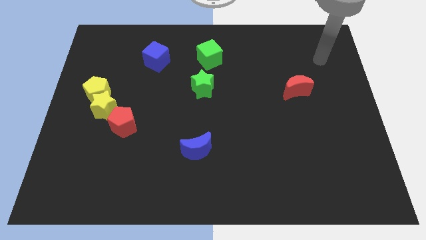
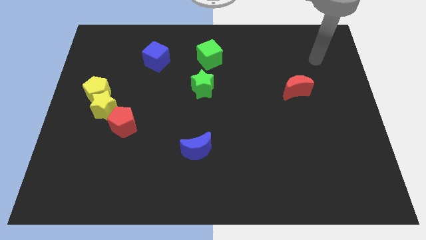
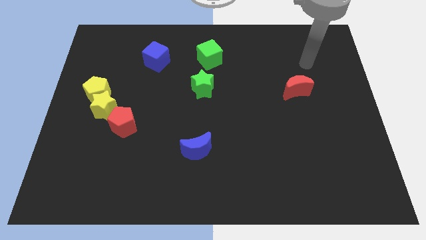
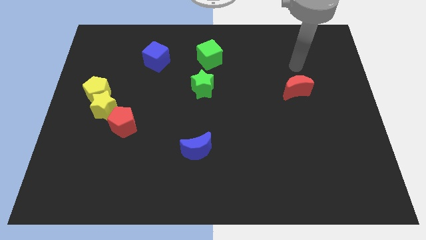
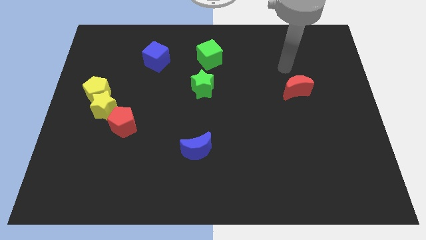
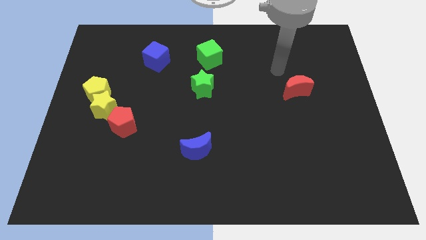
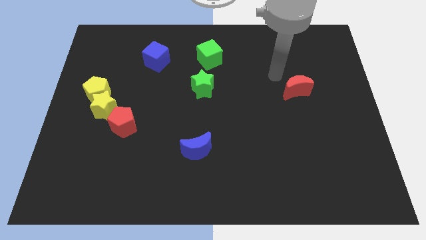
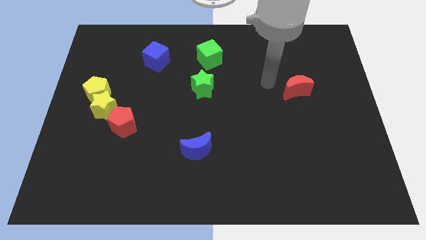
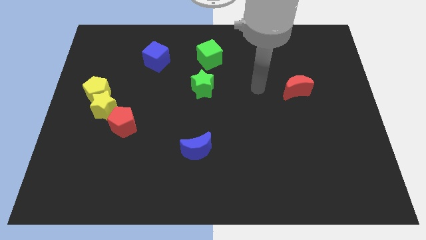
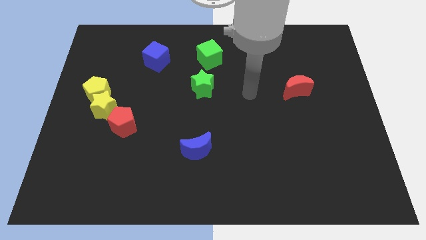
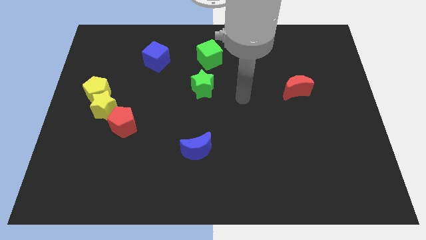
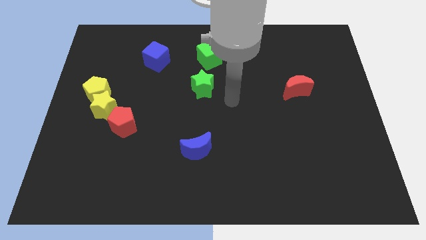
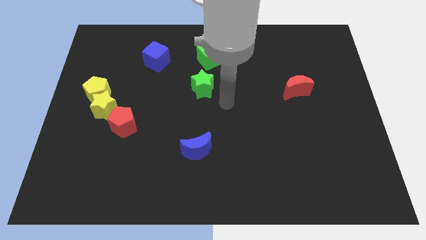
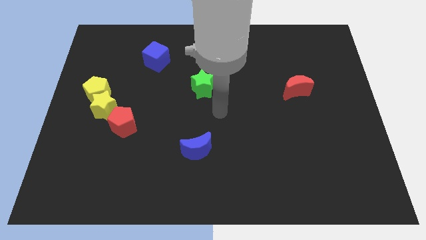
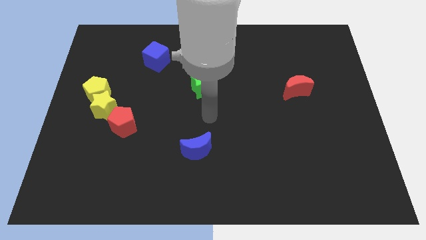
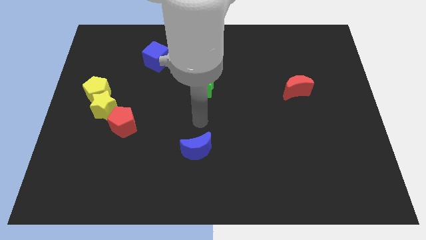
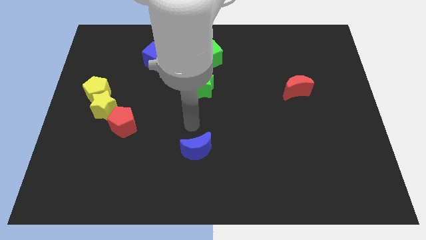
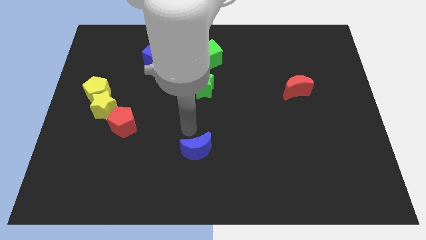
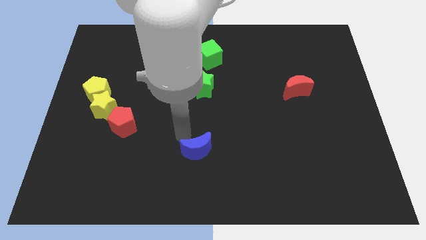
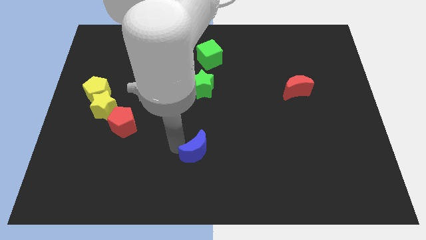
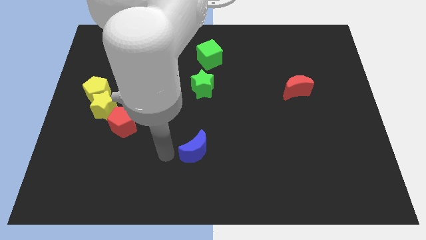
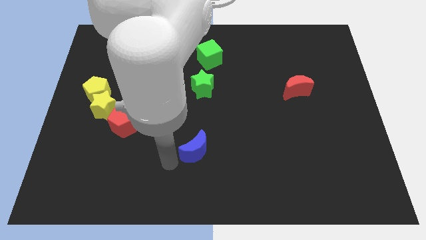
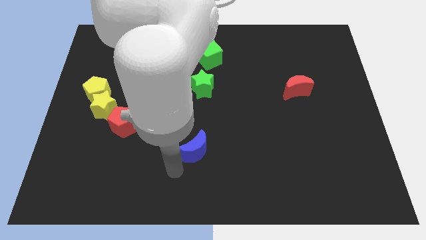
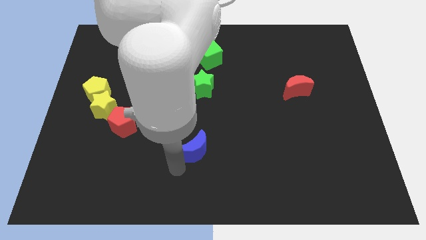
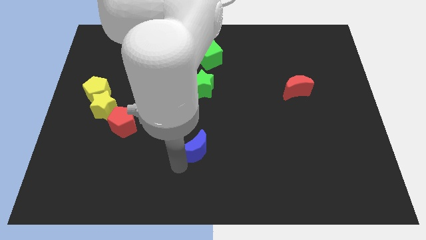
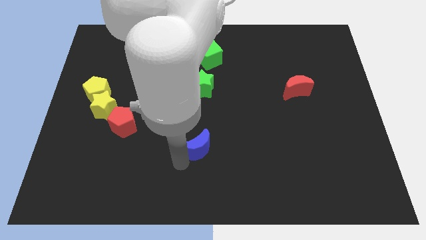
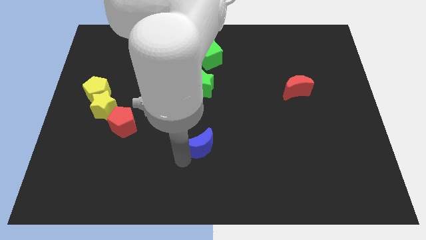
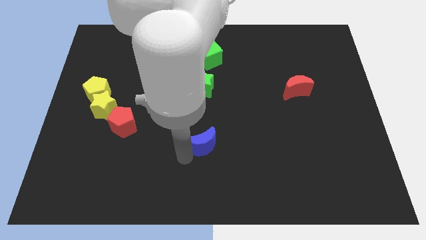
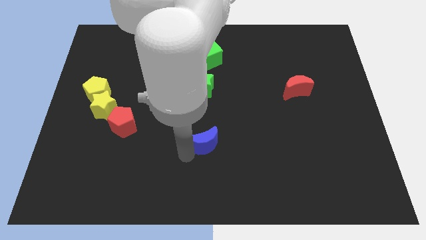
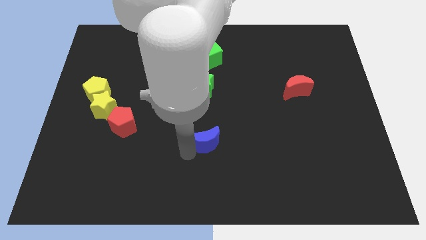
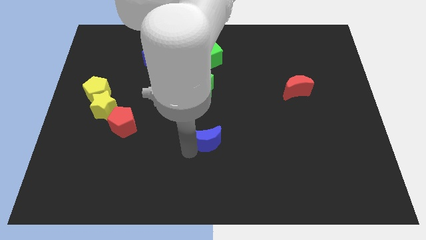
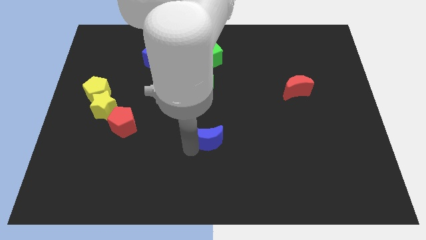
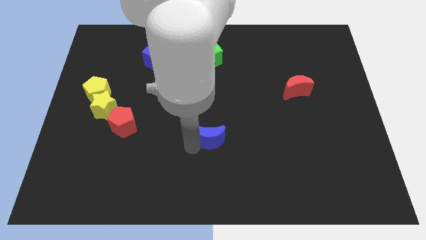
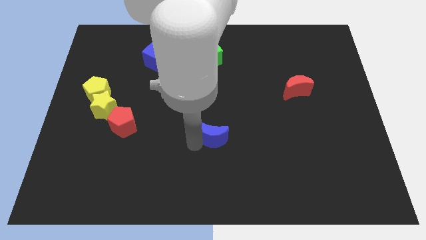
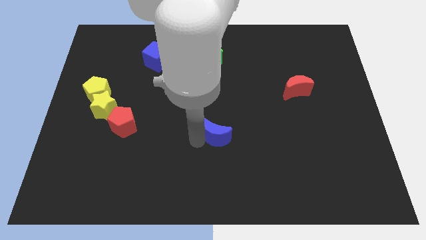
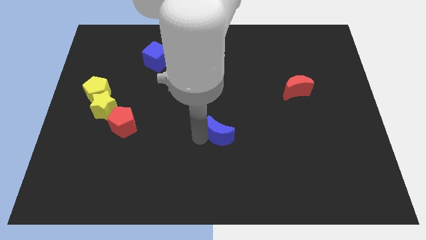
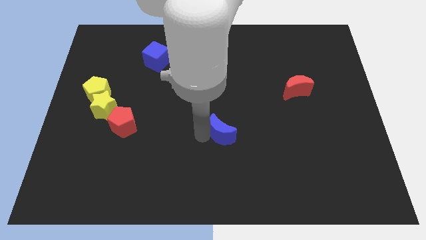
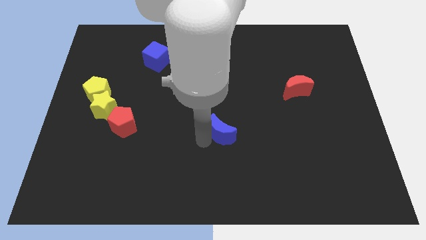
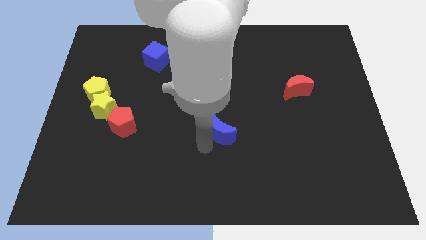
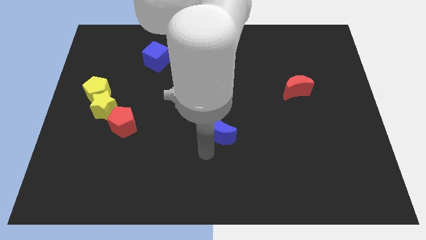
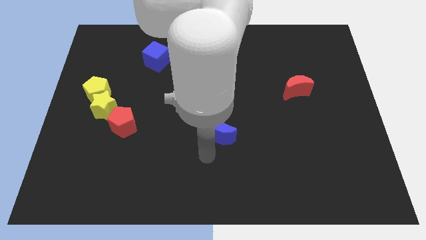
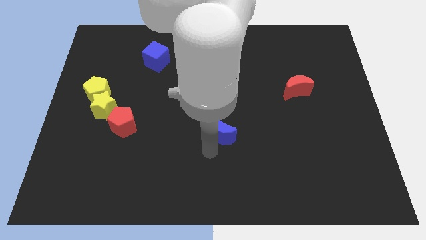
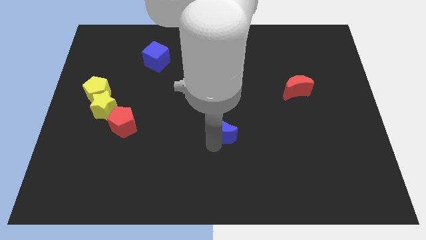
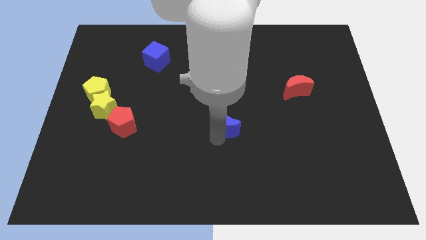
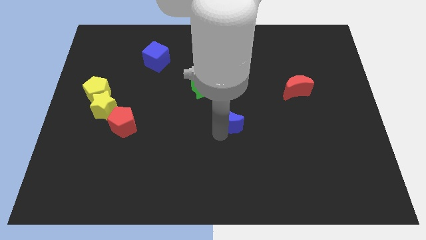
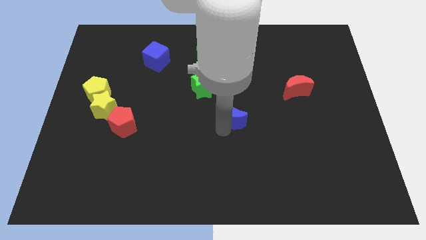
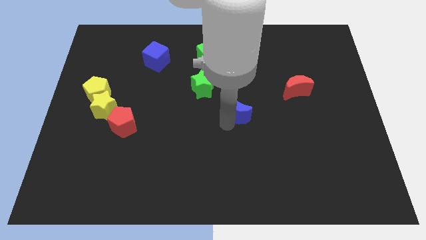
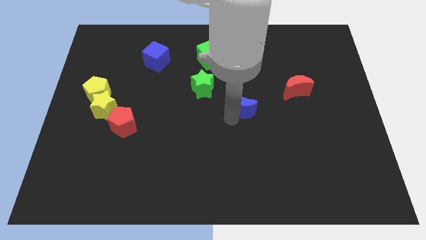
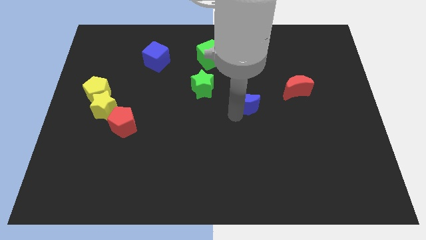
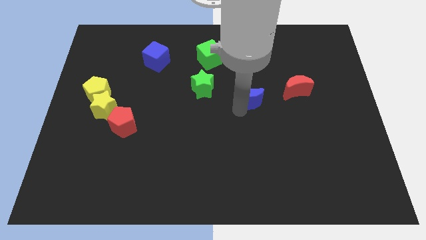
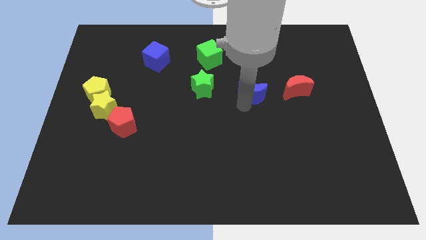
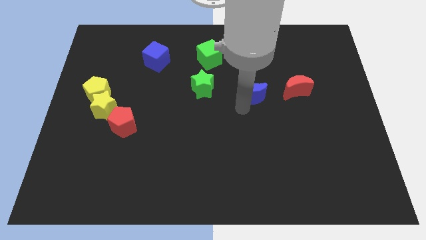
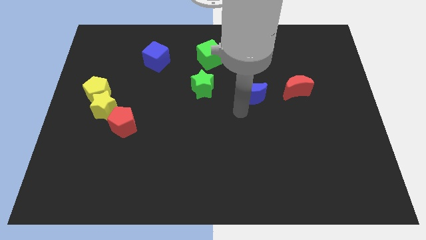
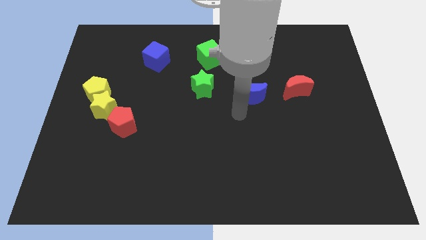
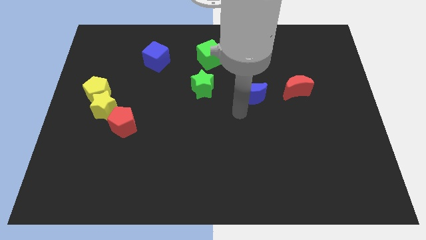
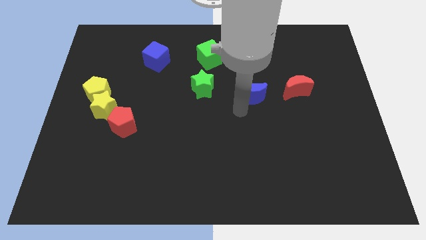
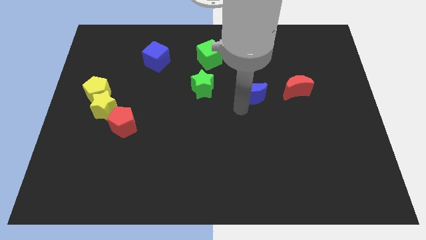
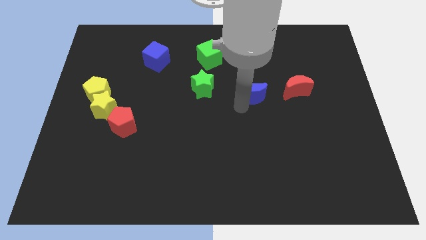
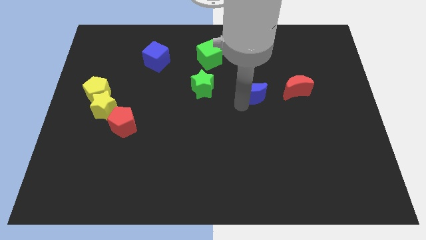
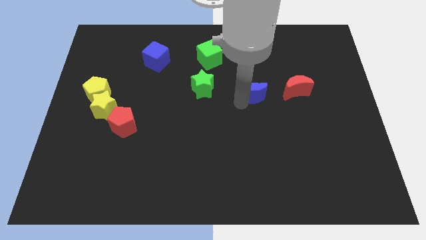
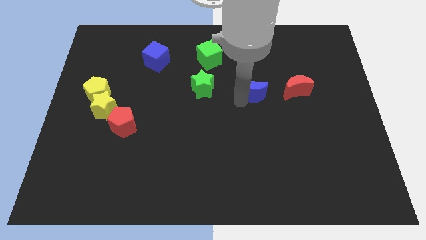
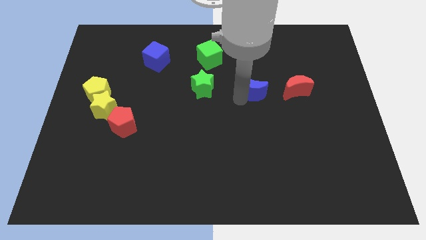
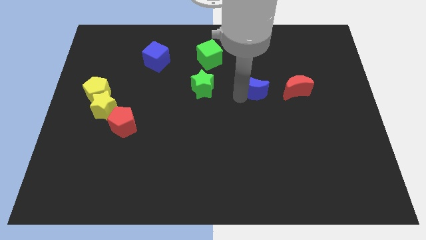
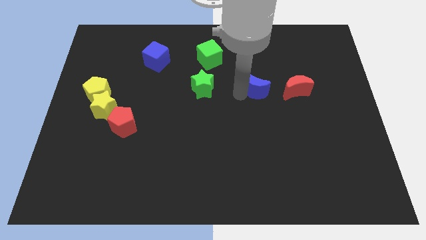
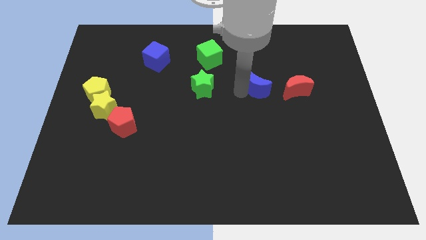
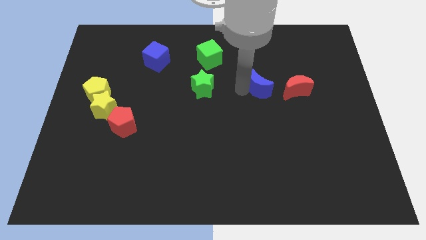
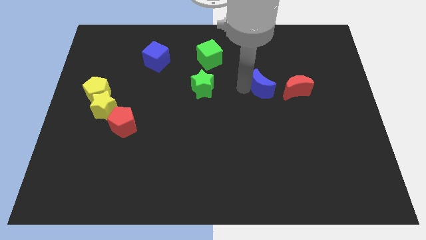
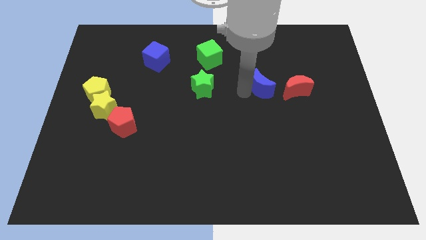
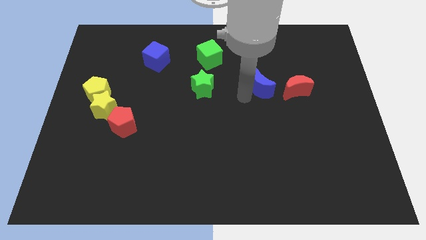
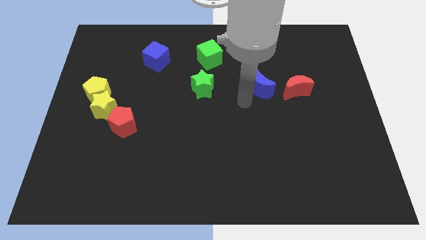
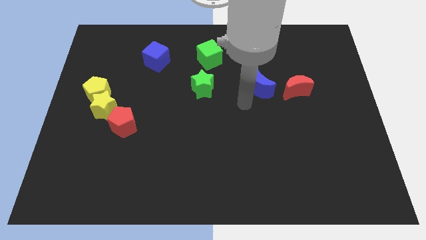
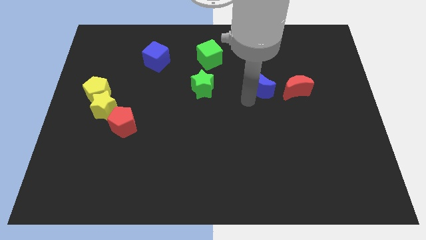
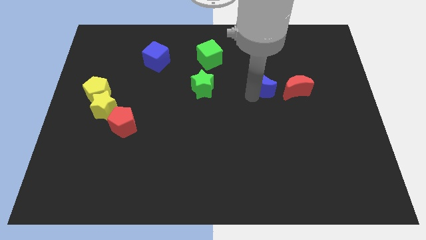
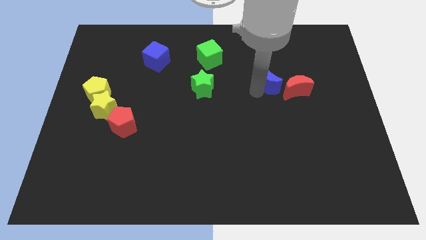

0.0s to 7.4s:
put the blue moon to the top left side of the red moon

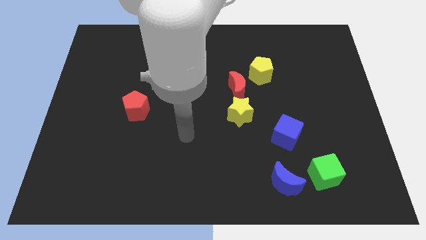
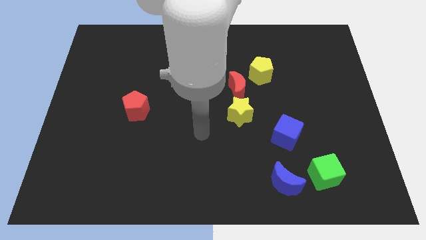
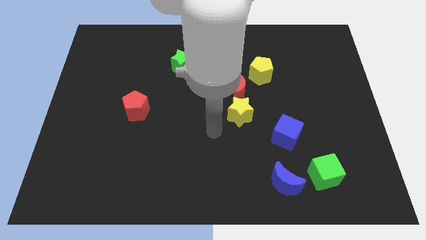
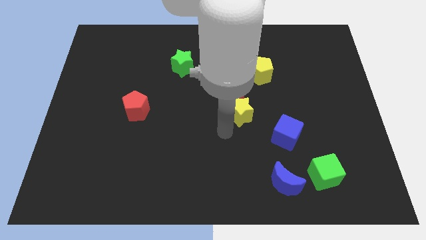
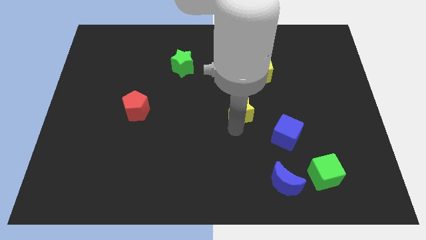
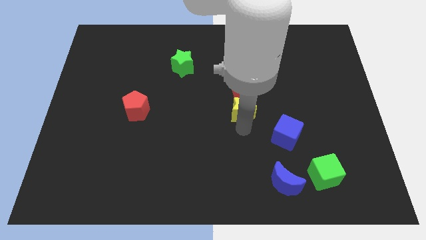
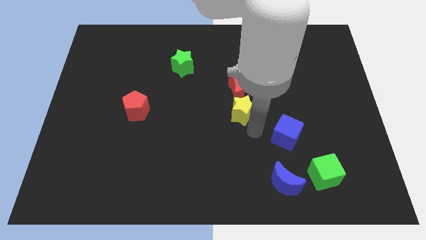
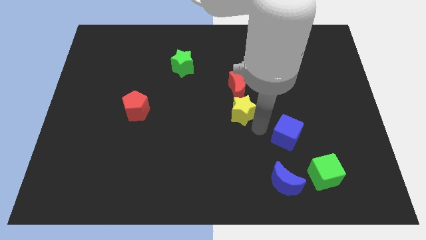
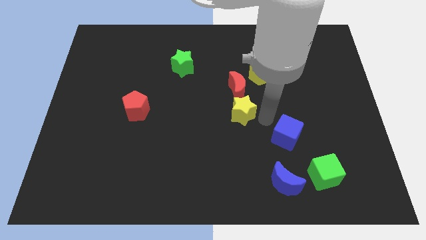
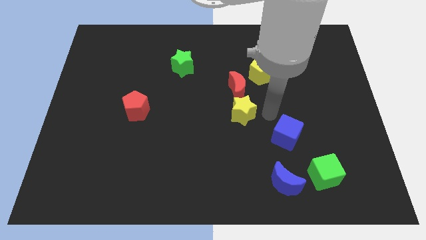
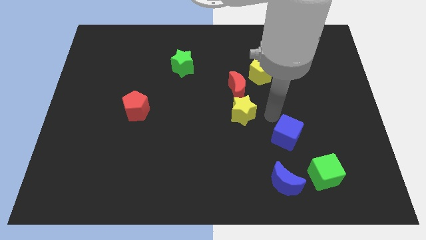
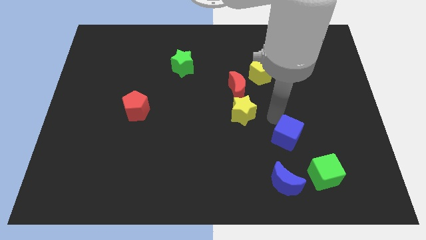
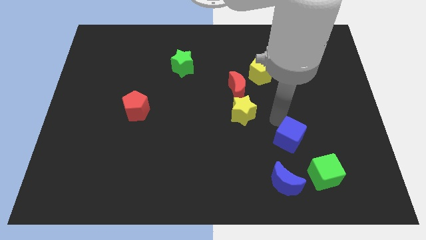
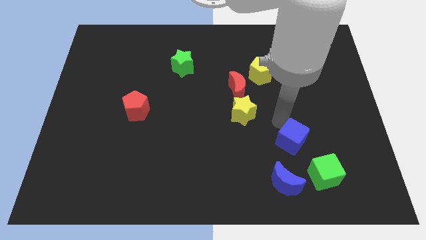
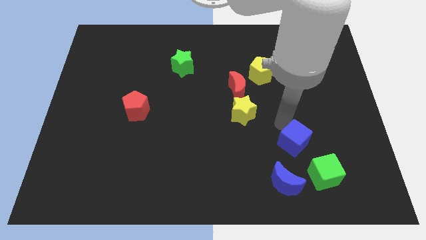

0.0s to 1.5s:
slide the blue cube to the top right side of the blue moon
